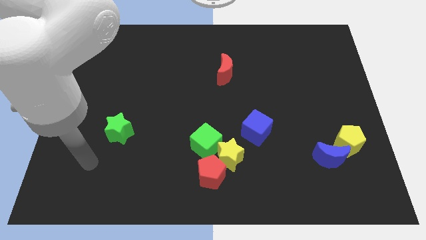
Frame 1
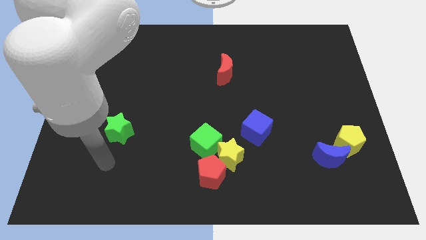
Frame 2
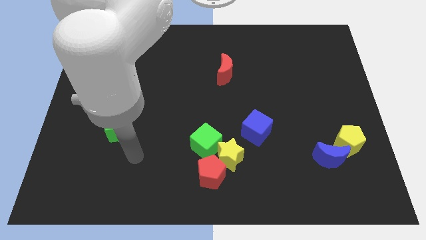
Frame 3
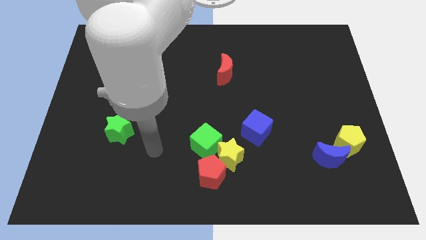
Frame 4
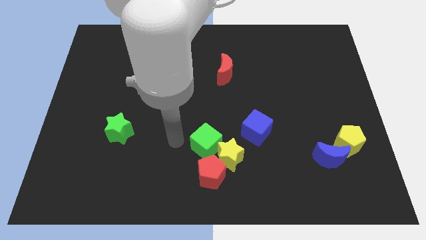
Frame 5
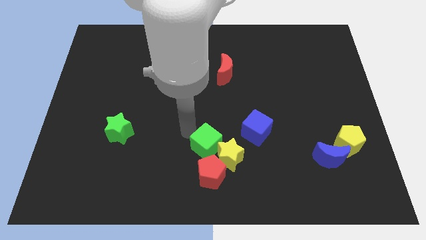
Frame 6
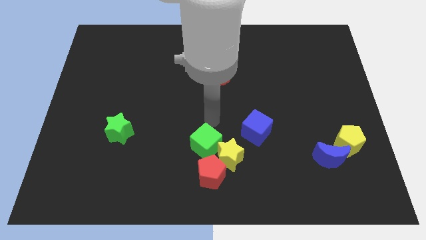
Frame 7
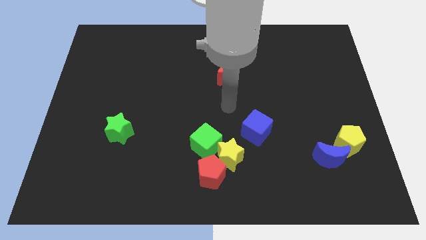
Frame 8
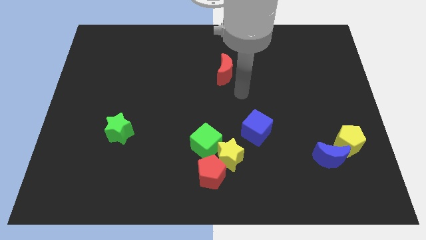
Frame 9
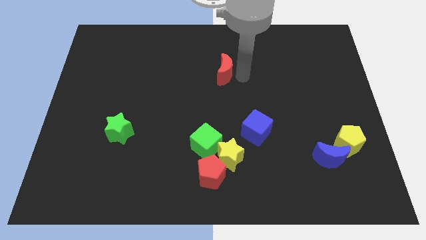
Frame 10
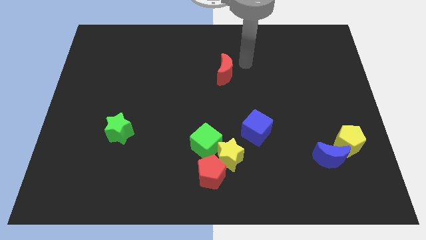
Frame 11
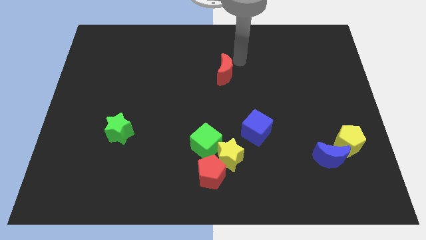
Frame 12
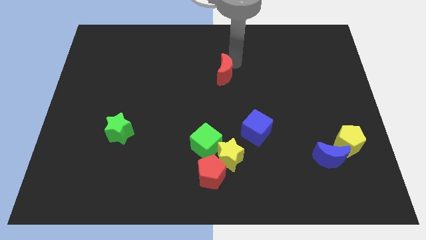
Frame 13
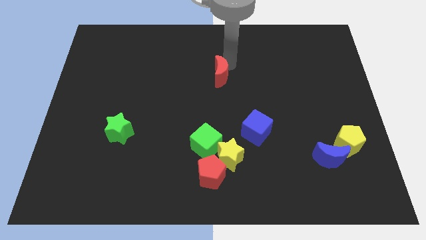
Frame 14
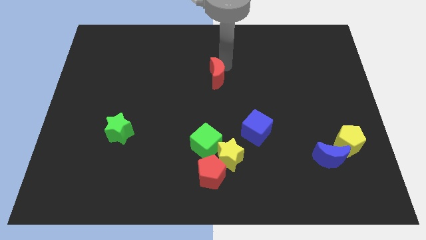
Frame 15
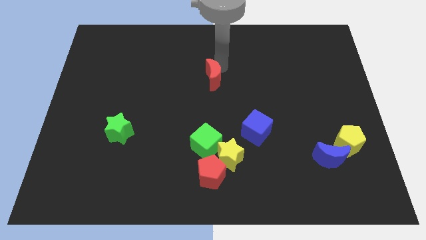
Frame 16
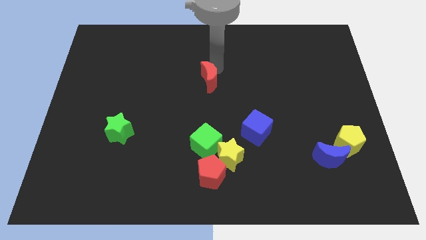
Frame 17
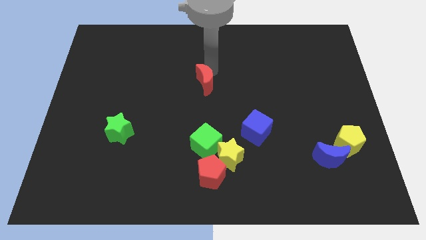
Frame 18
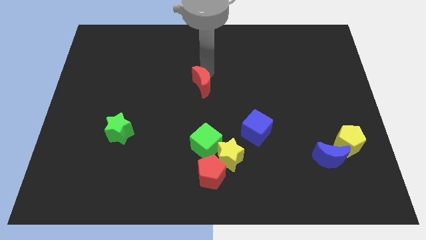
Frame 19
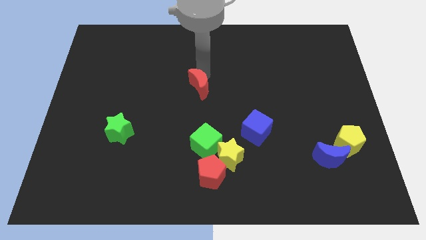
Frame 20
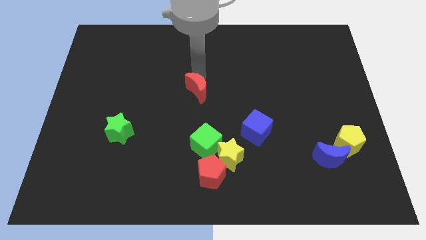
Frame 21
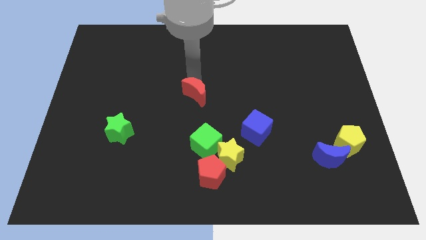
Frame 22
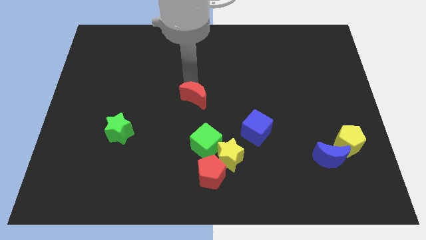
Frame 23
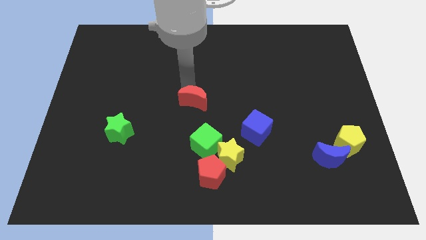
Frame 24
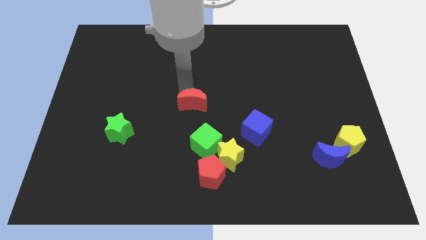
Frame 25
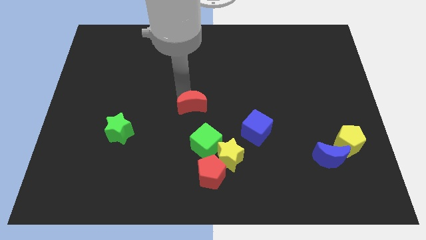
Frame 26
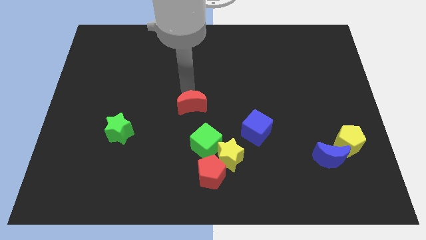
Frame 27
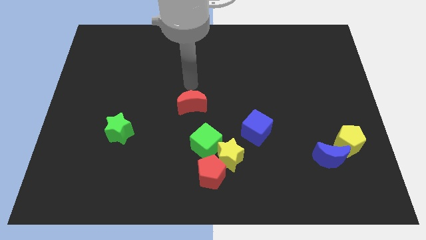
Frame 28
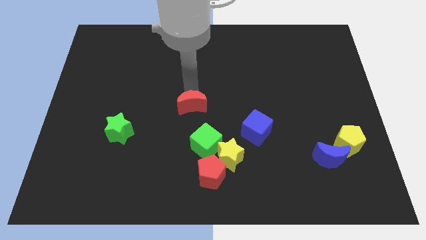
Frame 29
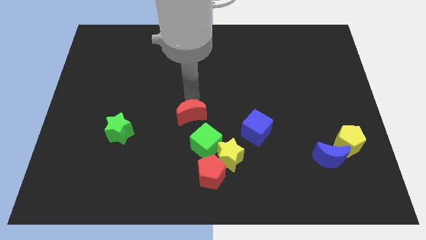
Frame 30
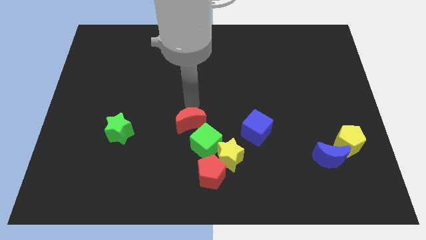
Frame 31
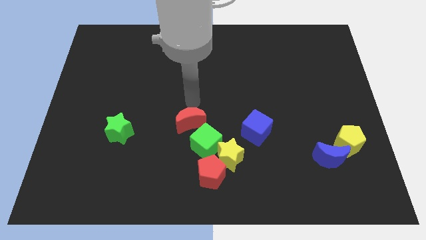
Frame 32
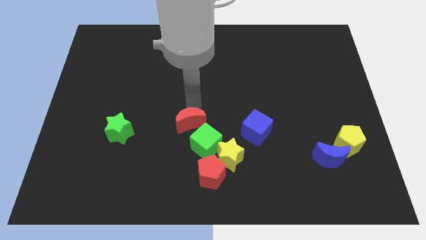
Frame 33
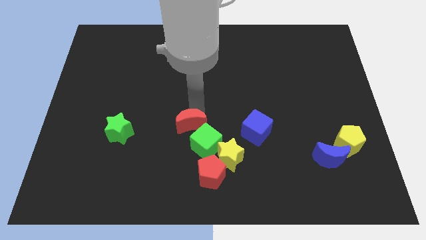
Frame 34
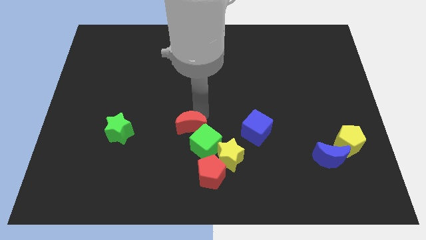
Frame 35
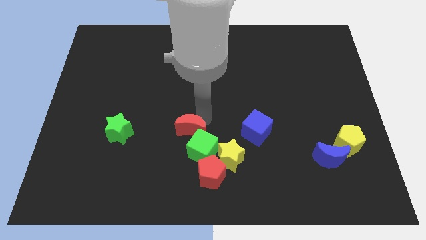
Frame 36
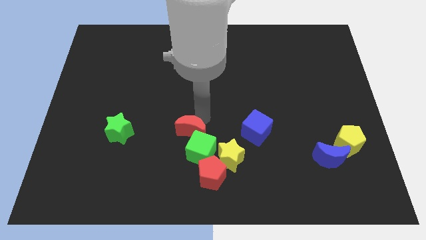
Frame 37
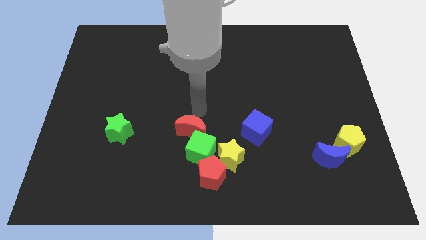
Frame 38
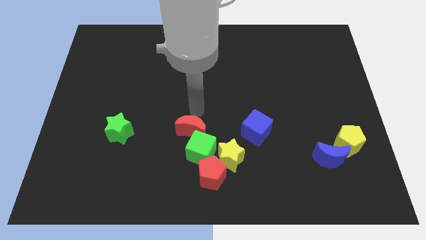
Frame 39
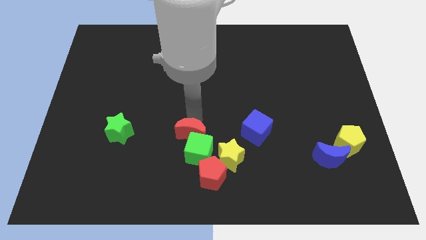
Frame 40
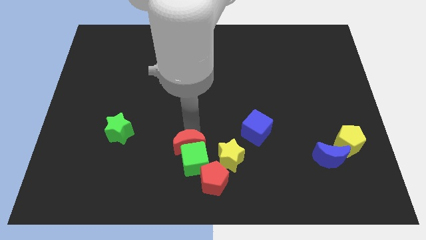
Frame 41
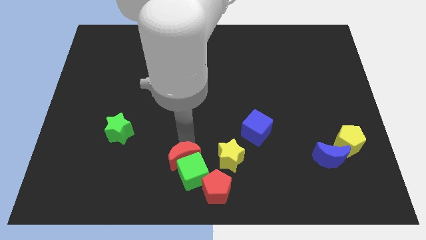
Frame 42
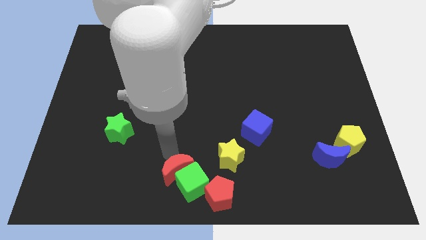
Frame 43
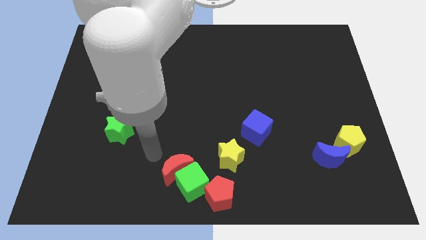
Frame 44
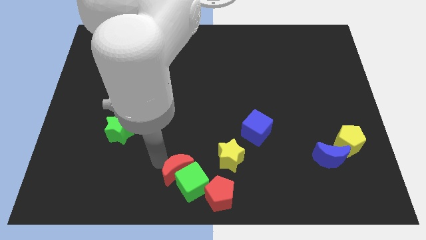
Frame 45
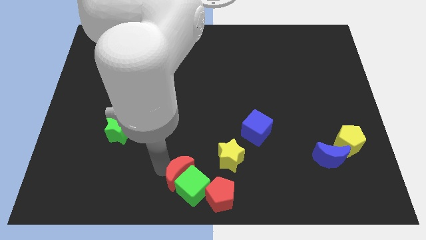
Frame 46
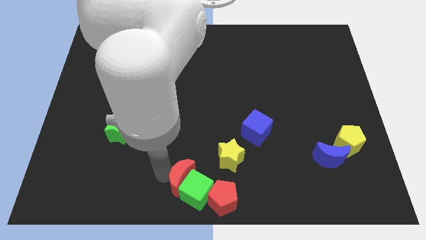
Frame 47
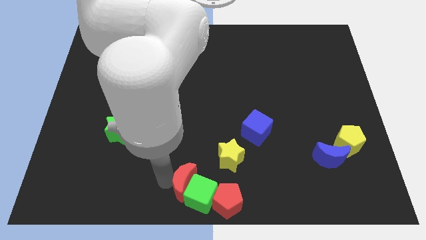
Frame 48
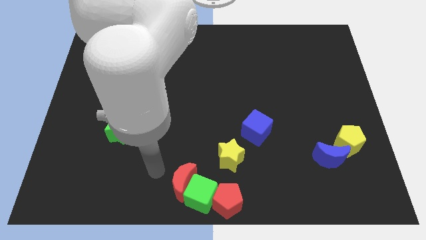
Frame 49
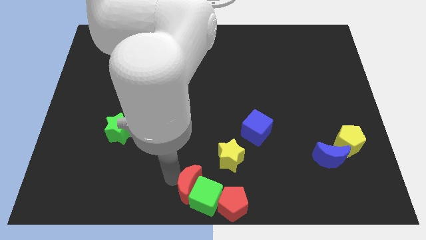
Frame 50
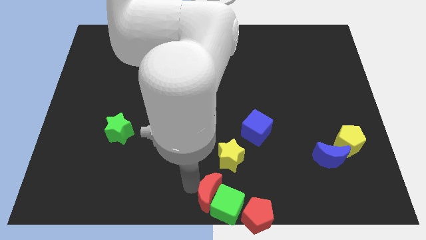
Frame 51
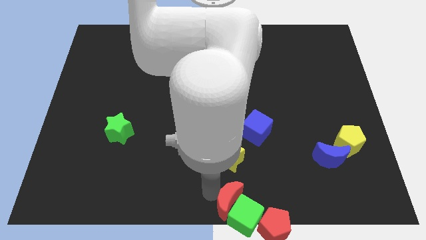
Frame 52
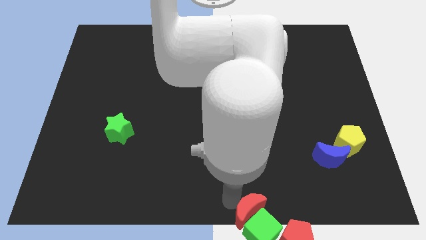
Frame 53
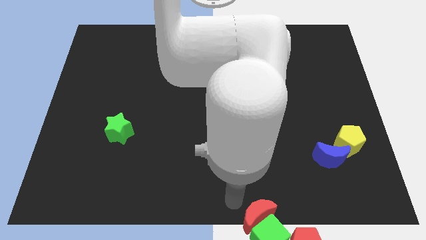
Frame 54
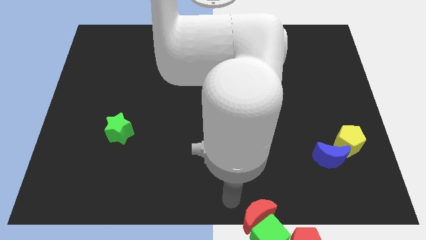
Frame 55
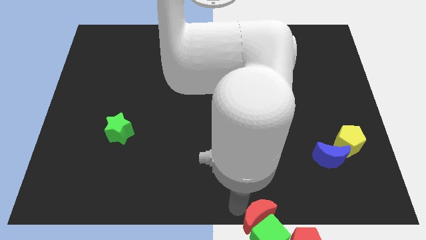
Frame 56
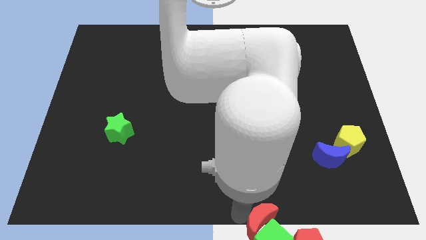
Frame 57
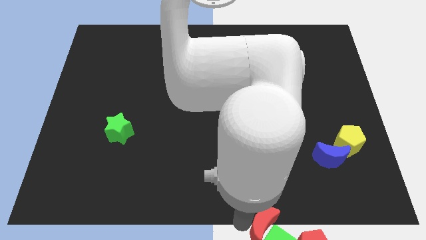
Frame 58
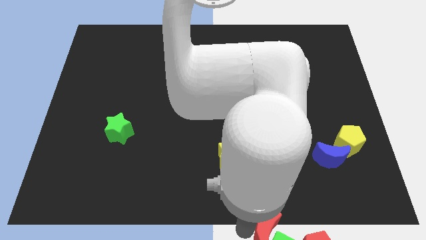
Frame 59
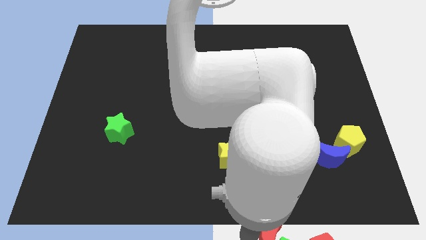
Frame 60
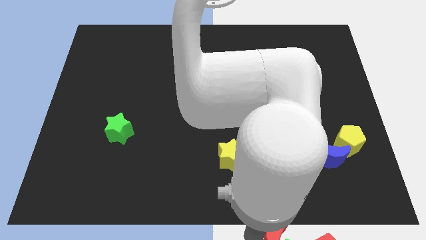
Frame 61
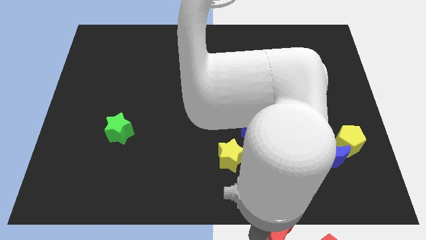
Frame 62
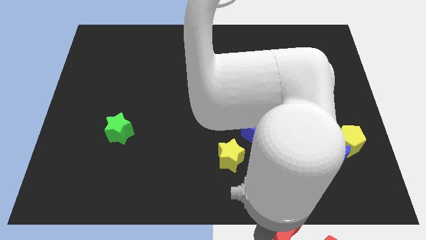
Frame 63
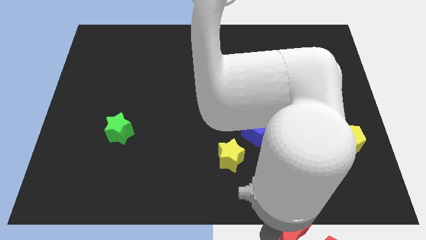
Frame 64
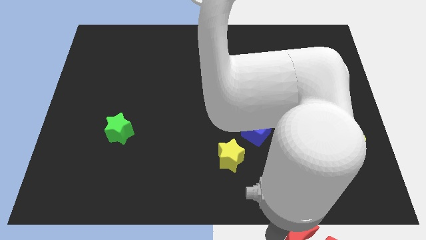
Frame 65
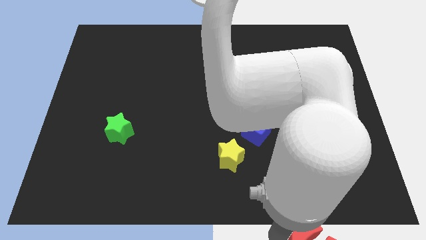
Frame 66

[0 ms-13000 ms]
slide the red moon to the red pentagon

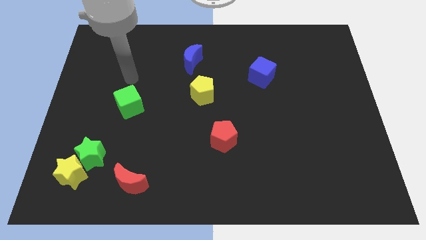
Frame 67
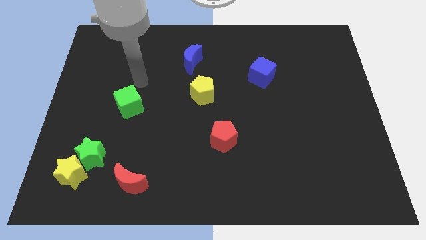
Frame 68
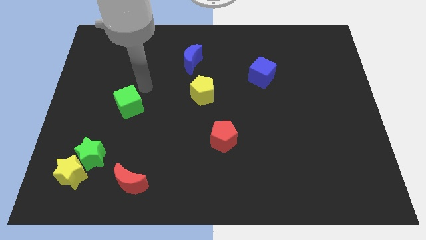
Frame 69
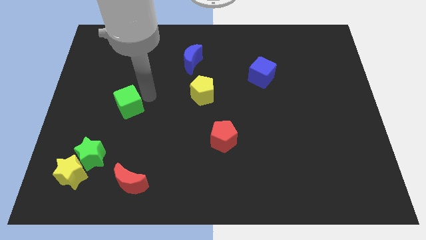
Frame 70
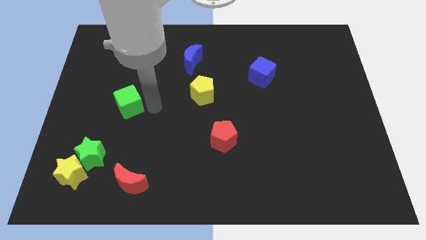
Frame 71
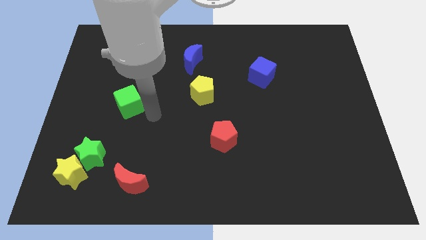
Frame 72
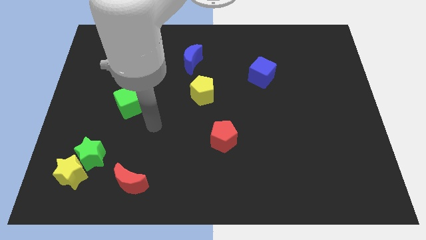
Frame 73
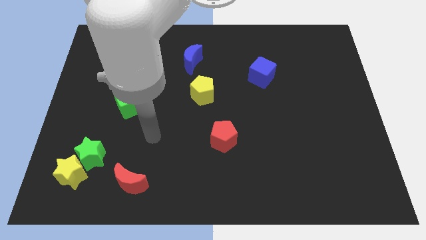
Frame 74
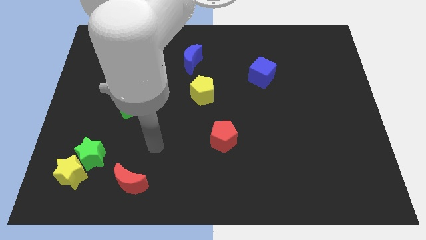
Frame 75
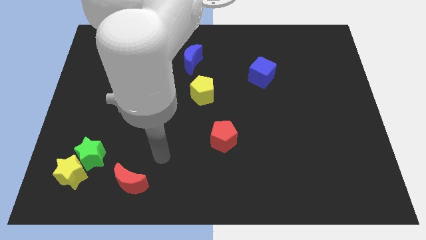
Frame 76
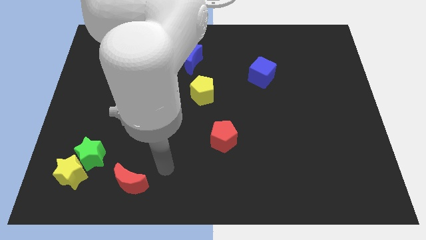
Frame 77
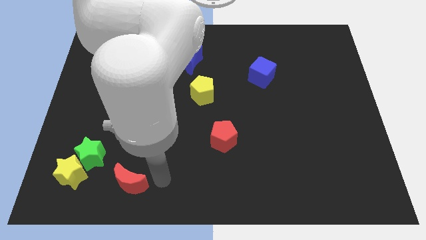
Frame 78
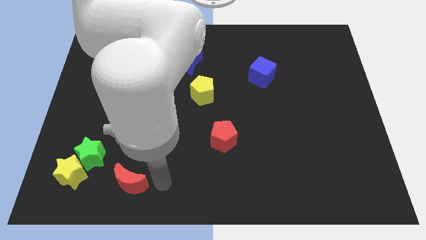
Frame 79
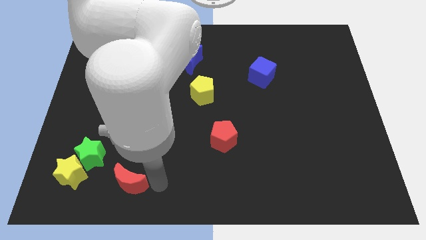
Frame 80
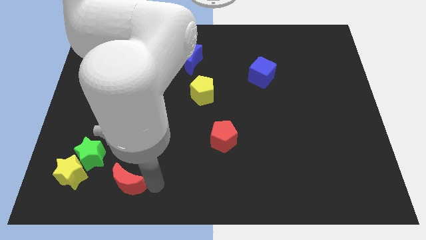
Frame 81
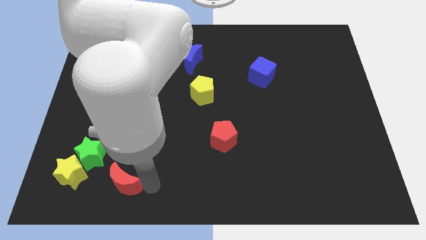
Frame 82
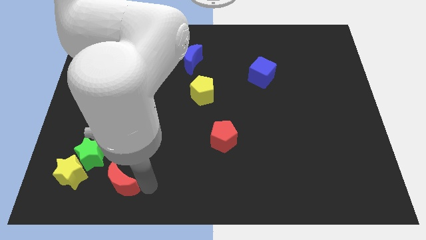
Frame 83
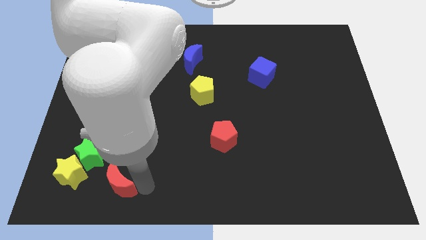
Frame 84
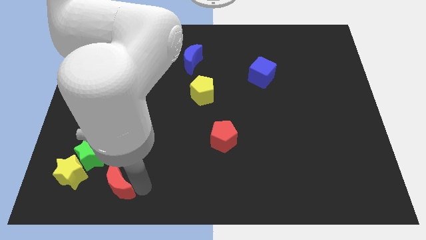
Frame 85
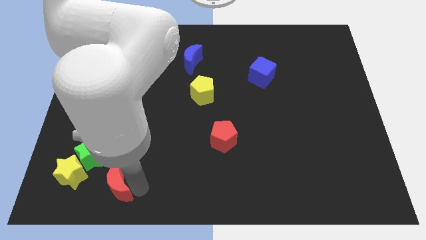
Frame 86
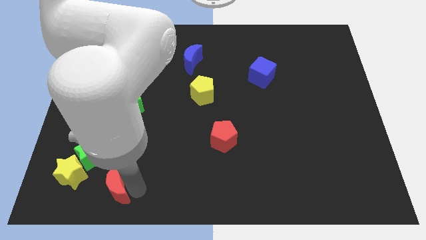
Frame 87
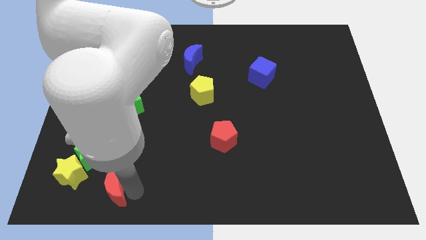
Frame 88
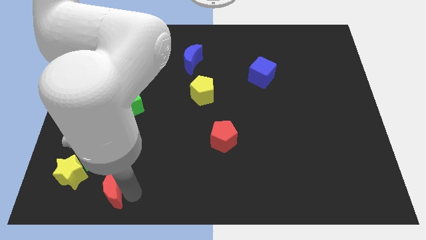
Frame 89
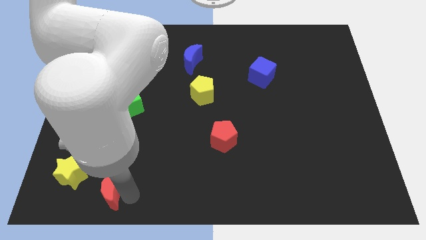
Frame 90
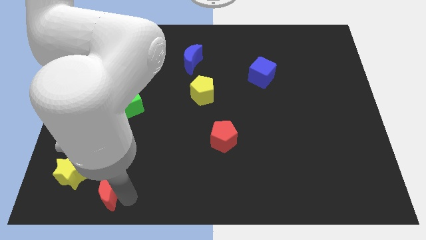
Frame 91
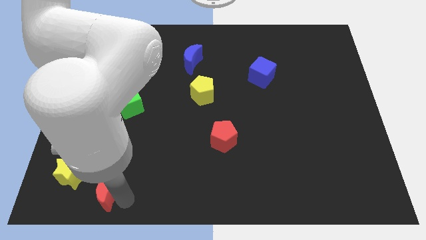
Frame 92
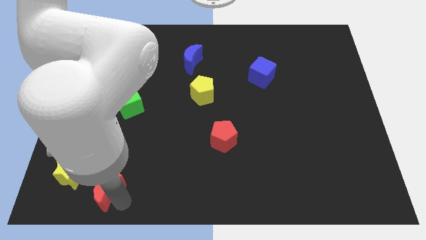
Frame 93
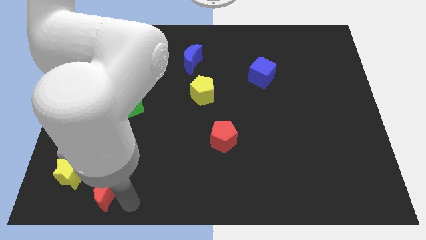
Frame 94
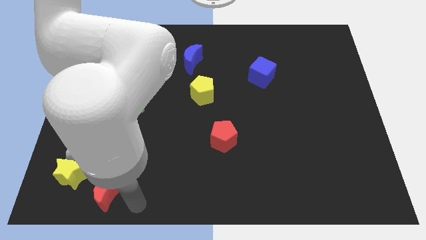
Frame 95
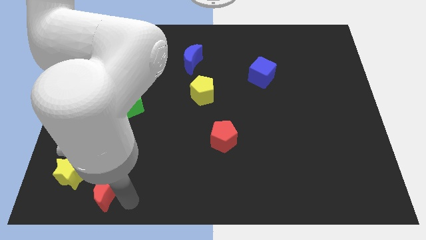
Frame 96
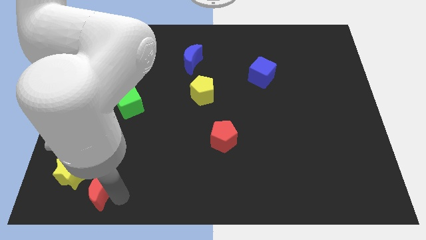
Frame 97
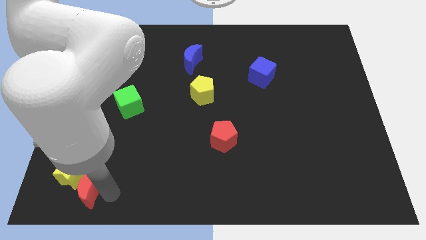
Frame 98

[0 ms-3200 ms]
move the red moon close to the yellow star
